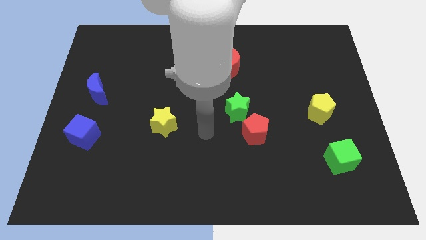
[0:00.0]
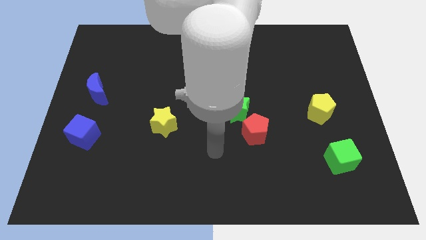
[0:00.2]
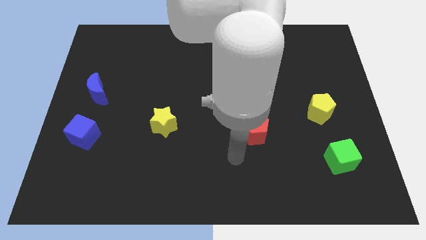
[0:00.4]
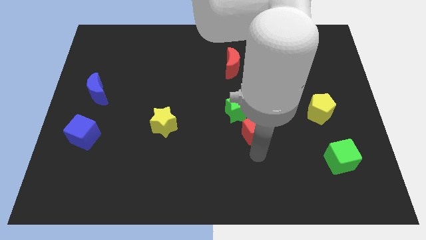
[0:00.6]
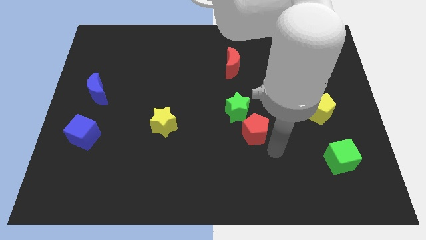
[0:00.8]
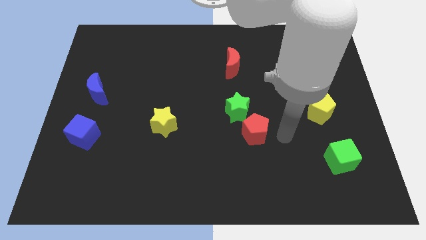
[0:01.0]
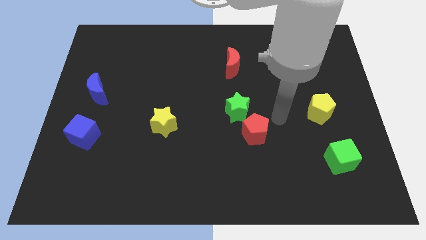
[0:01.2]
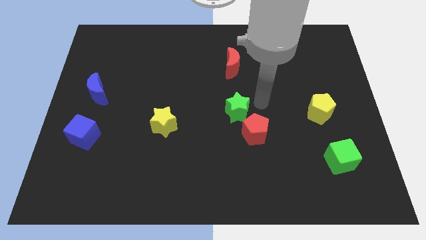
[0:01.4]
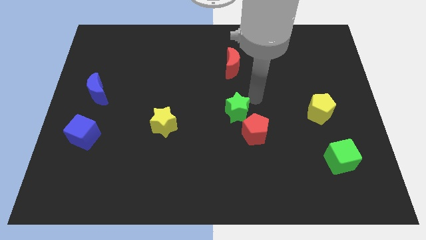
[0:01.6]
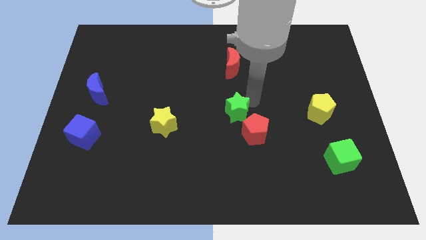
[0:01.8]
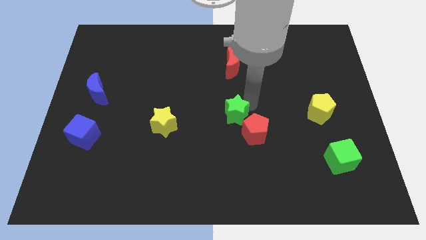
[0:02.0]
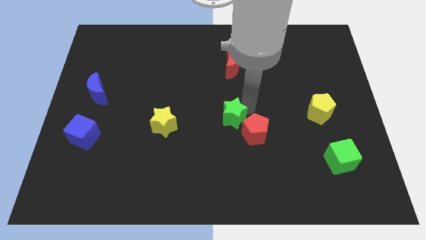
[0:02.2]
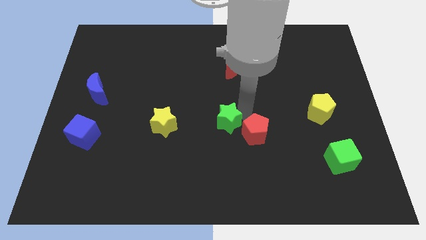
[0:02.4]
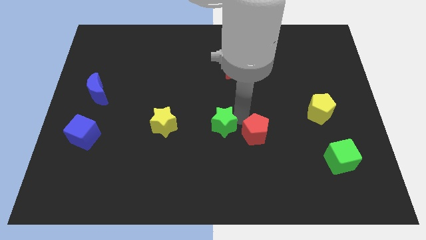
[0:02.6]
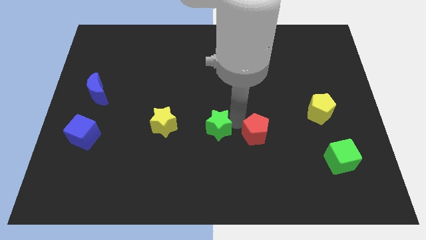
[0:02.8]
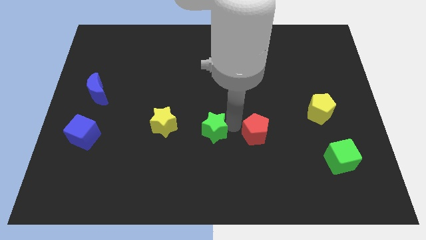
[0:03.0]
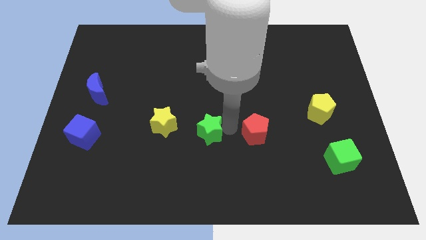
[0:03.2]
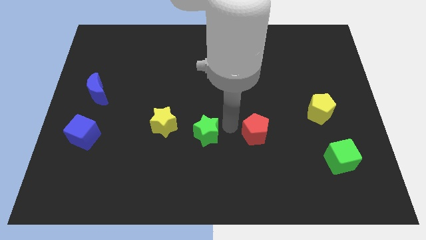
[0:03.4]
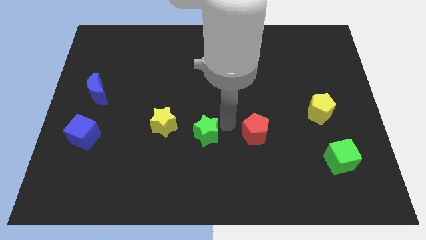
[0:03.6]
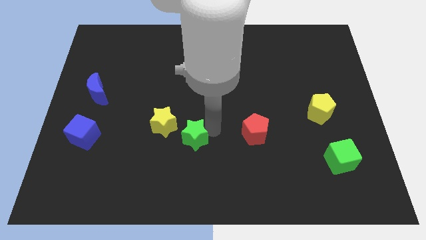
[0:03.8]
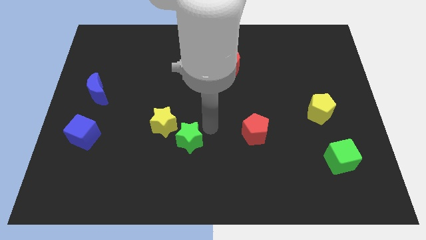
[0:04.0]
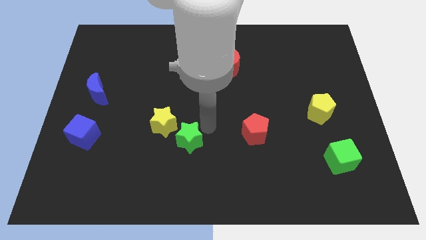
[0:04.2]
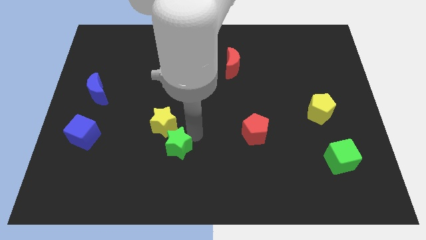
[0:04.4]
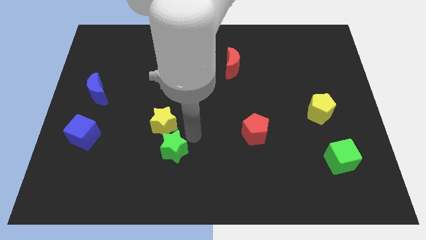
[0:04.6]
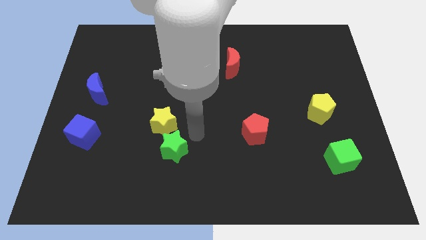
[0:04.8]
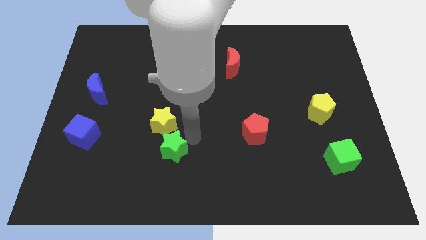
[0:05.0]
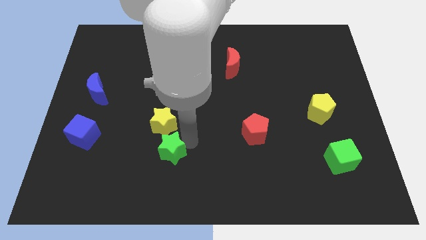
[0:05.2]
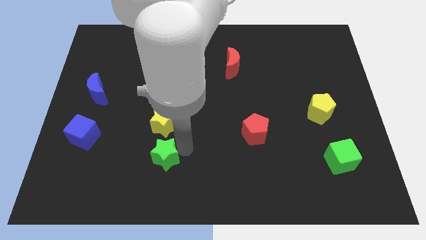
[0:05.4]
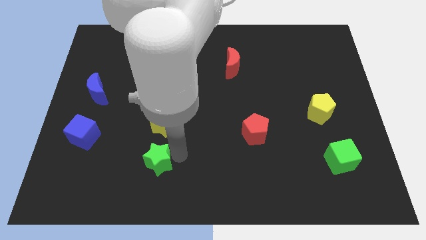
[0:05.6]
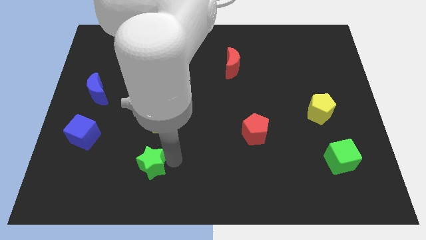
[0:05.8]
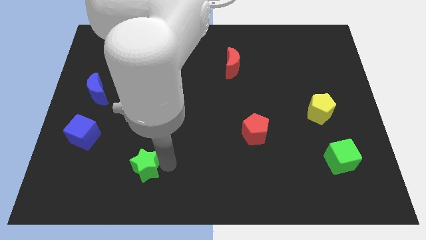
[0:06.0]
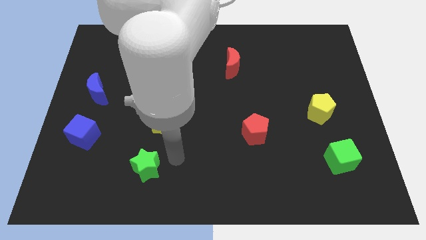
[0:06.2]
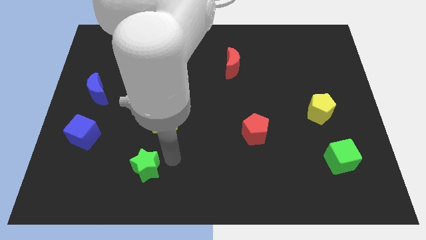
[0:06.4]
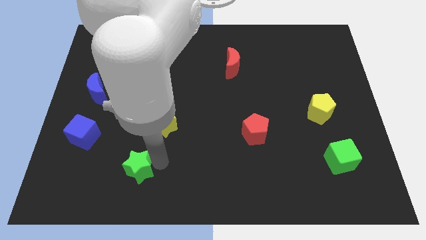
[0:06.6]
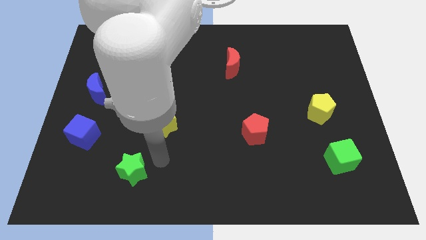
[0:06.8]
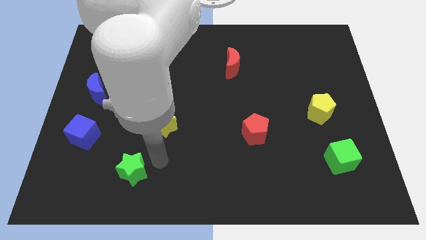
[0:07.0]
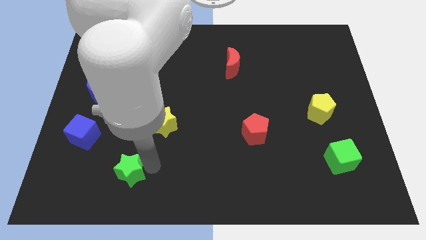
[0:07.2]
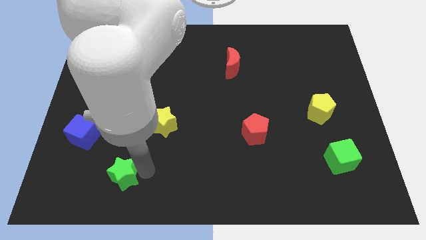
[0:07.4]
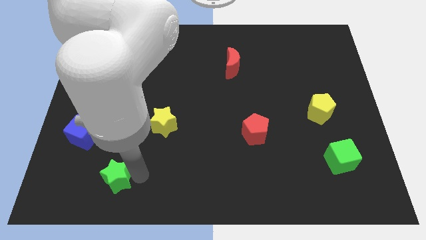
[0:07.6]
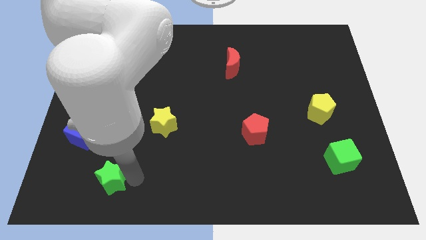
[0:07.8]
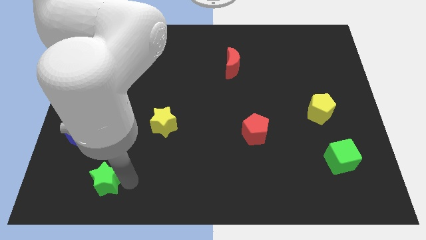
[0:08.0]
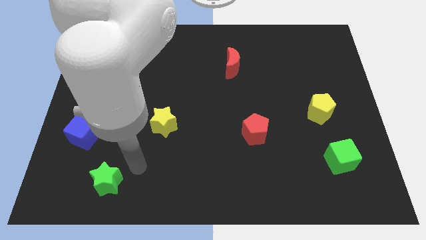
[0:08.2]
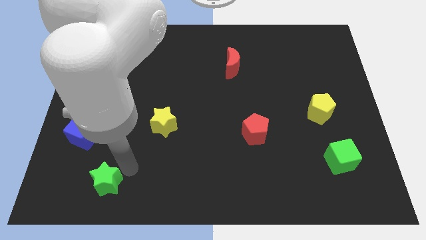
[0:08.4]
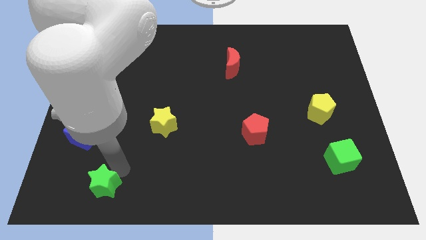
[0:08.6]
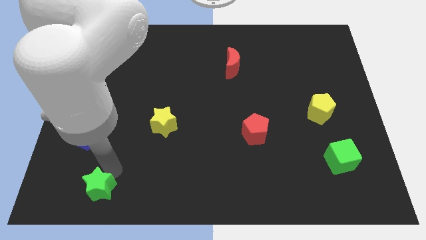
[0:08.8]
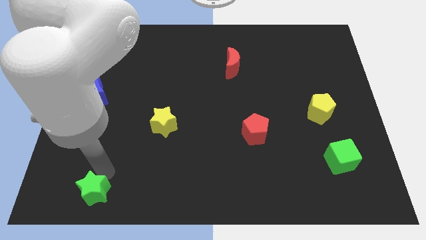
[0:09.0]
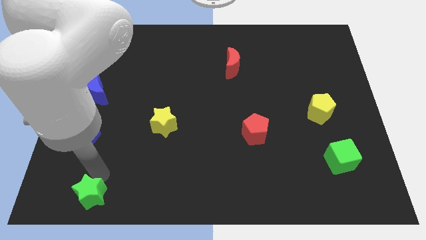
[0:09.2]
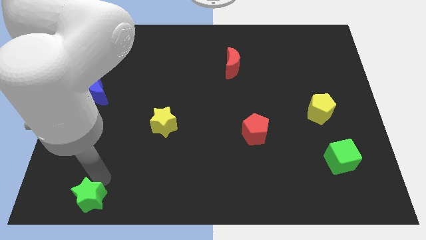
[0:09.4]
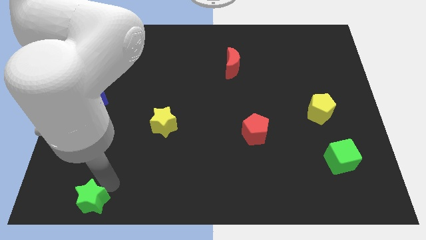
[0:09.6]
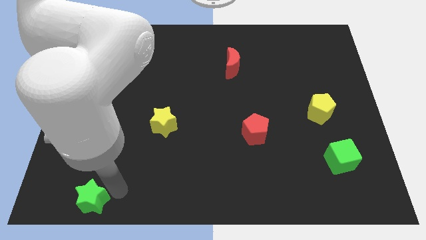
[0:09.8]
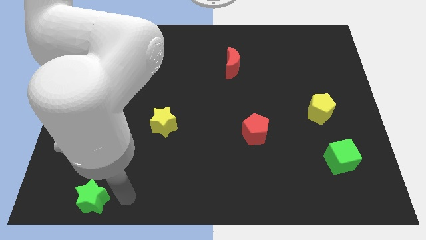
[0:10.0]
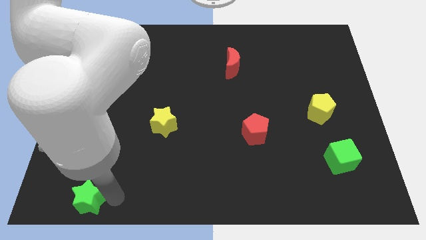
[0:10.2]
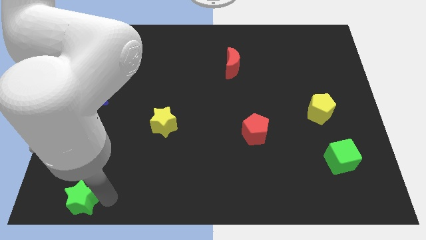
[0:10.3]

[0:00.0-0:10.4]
move the green star to the bottom left of the board

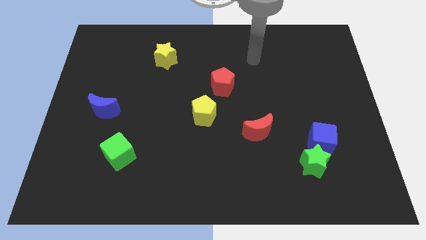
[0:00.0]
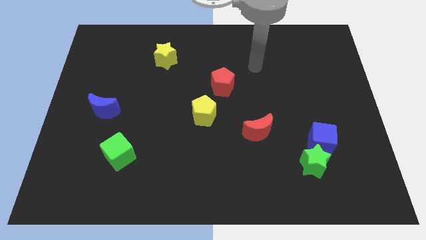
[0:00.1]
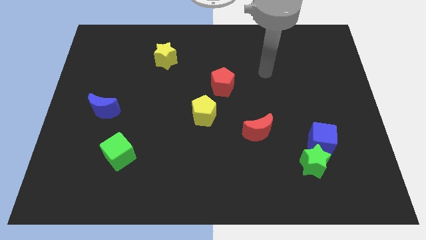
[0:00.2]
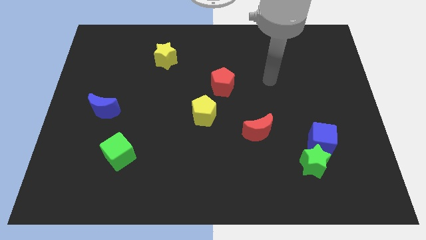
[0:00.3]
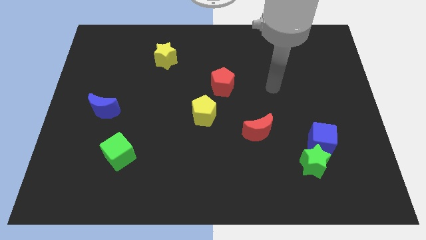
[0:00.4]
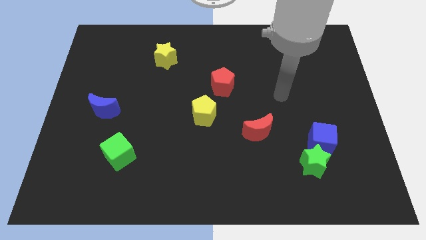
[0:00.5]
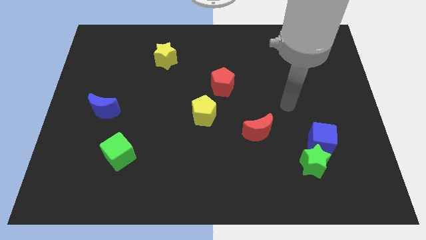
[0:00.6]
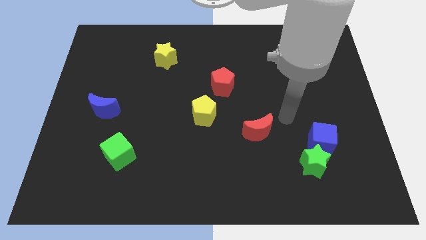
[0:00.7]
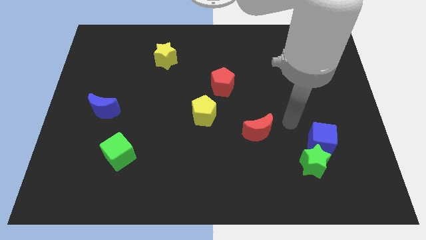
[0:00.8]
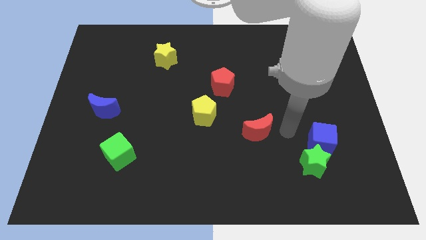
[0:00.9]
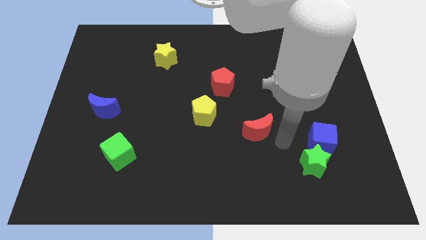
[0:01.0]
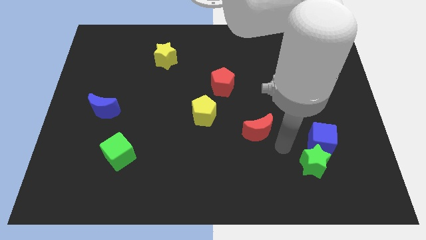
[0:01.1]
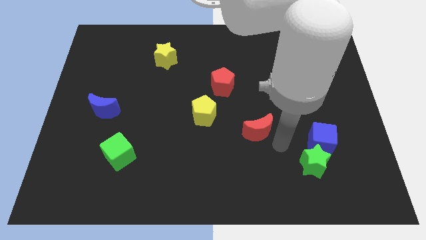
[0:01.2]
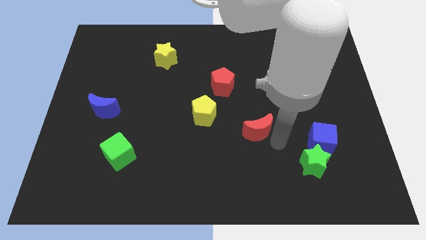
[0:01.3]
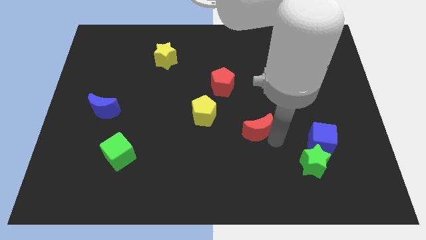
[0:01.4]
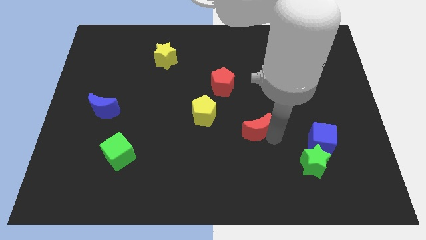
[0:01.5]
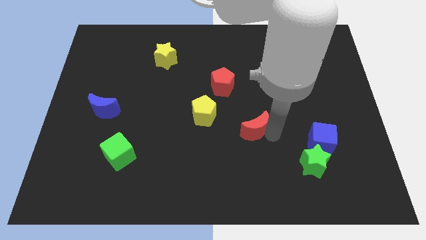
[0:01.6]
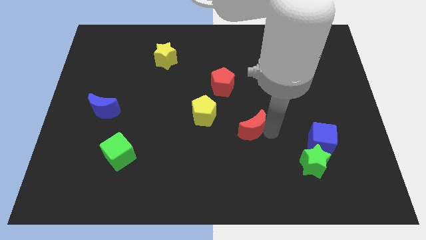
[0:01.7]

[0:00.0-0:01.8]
slide the red moon to the center
